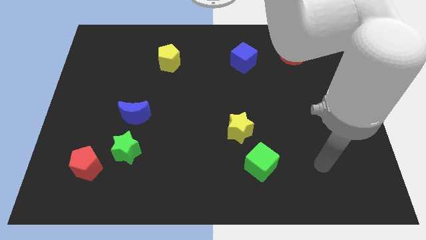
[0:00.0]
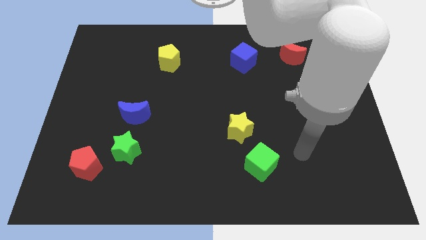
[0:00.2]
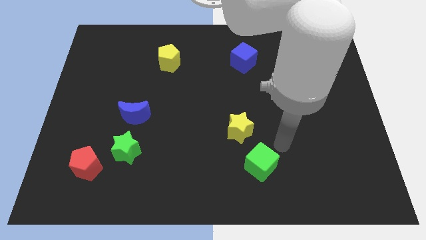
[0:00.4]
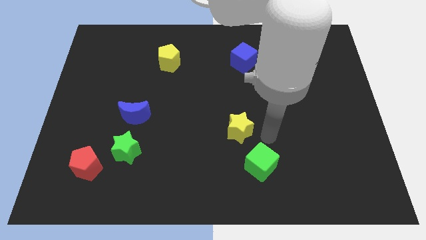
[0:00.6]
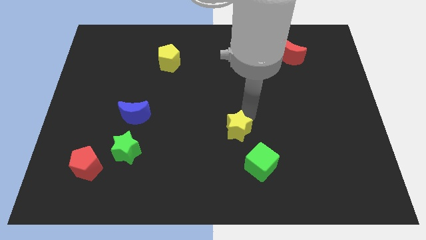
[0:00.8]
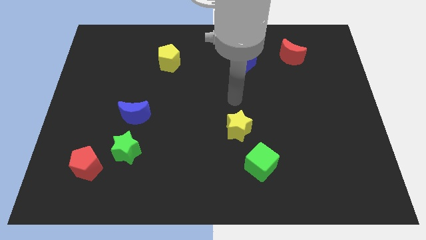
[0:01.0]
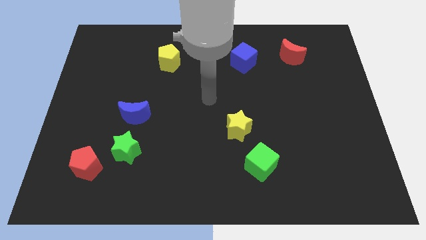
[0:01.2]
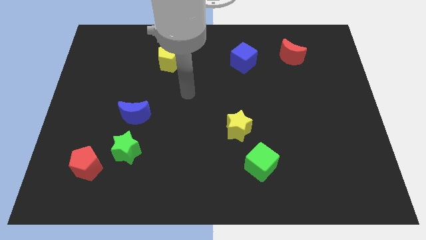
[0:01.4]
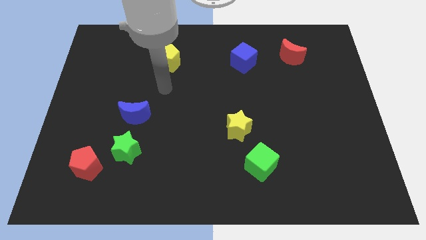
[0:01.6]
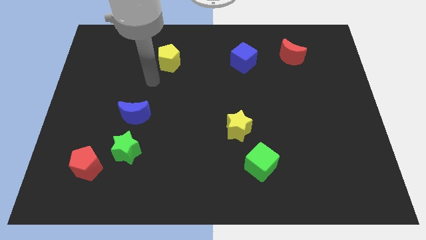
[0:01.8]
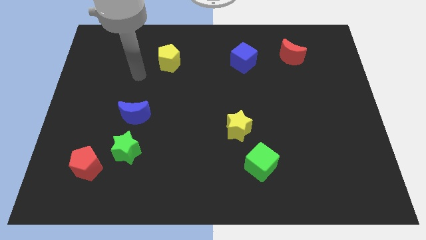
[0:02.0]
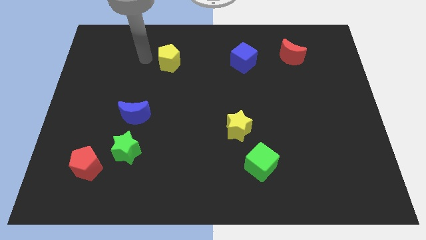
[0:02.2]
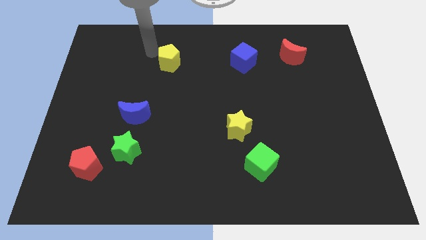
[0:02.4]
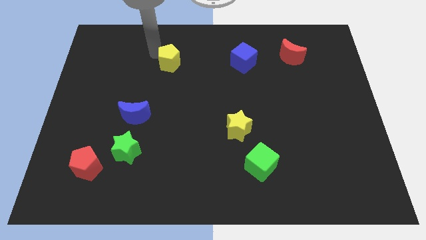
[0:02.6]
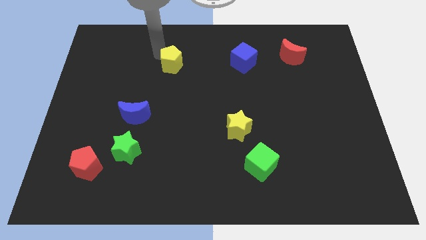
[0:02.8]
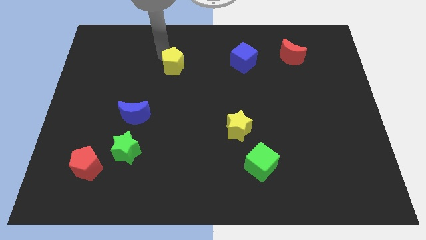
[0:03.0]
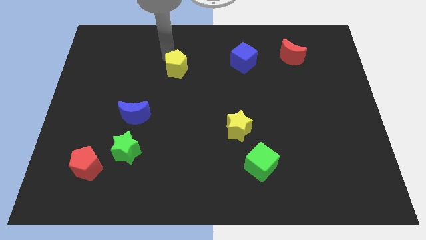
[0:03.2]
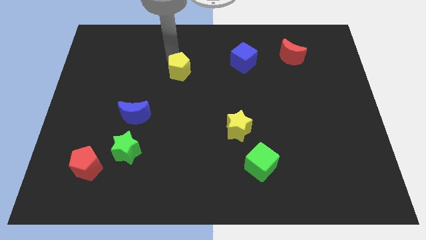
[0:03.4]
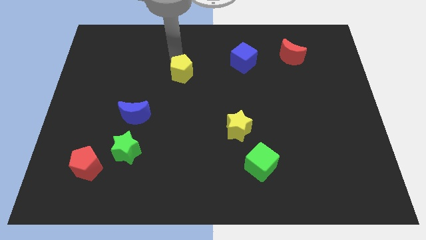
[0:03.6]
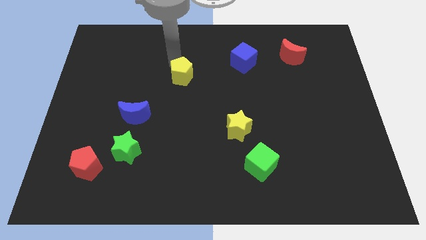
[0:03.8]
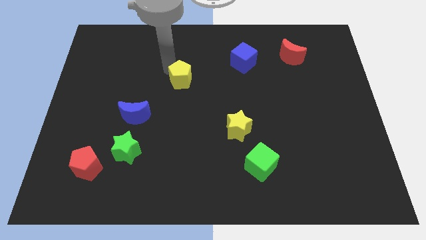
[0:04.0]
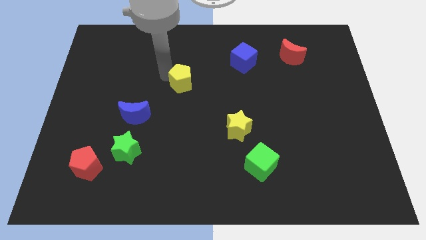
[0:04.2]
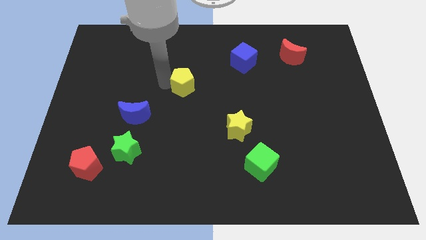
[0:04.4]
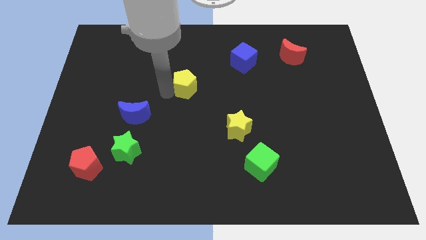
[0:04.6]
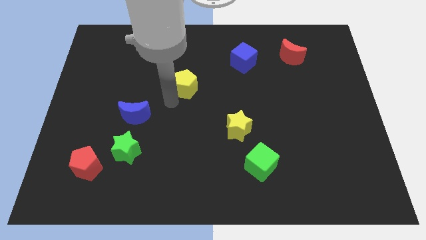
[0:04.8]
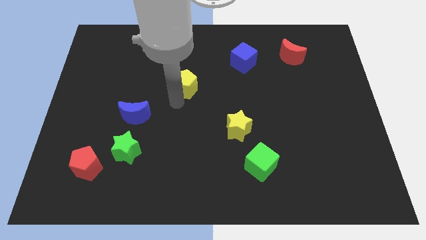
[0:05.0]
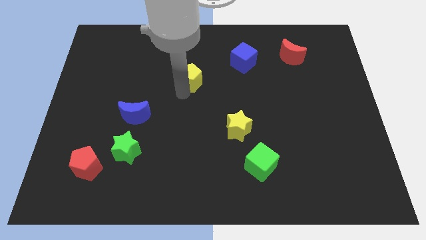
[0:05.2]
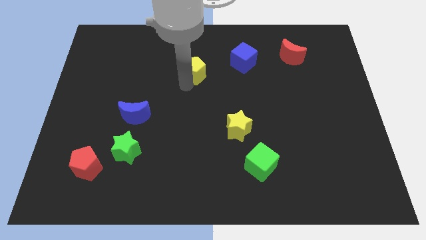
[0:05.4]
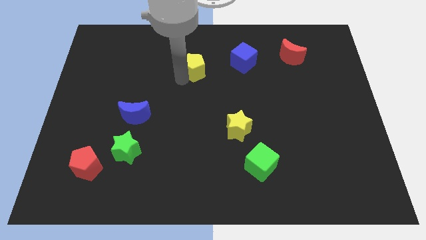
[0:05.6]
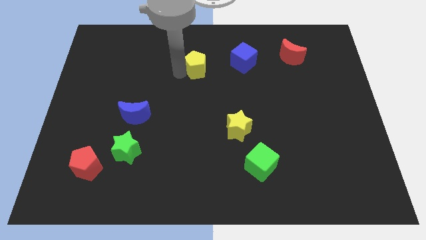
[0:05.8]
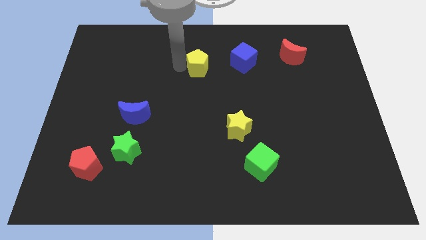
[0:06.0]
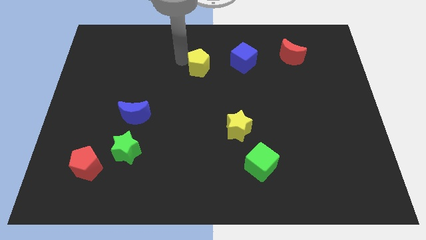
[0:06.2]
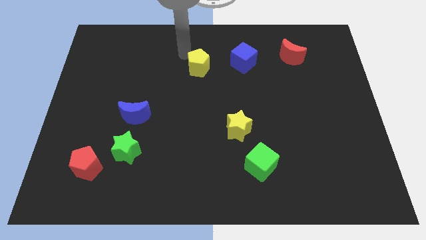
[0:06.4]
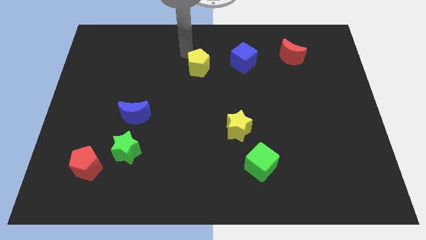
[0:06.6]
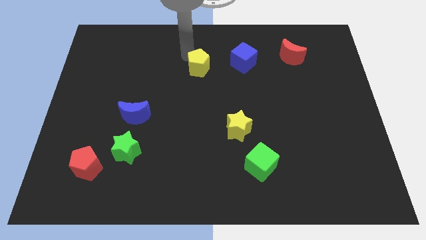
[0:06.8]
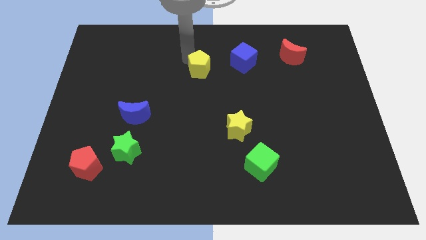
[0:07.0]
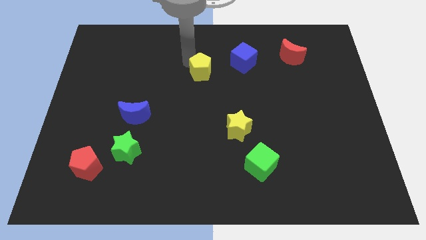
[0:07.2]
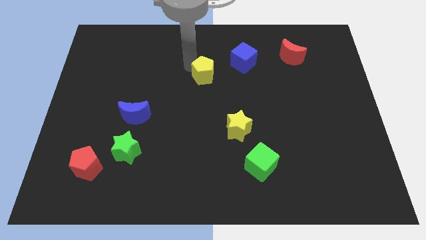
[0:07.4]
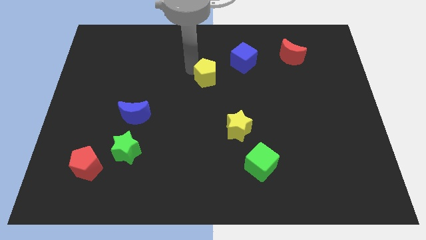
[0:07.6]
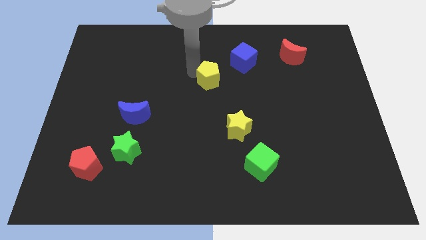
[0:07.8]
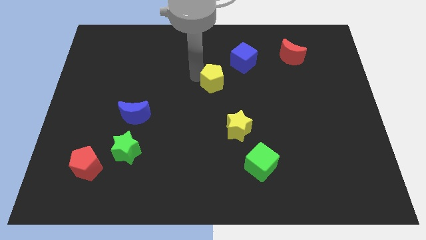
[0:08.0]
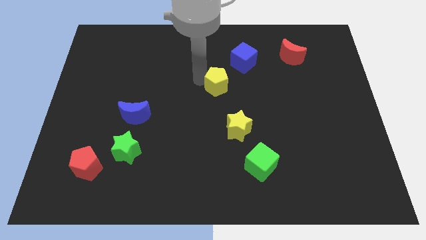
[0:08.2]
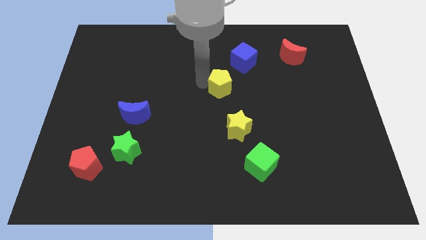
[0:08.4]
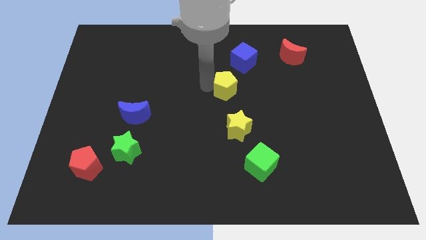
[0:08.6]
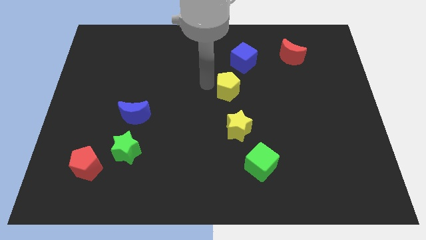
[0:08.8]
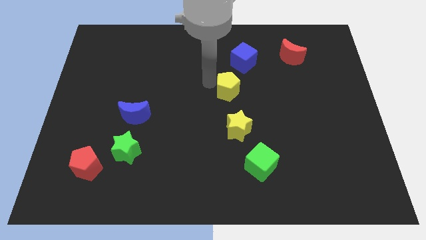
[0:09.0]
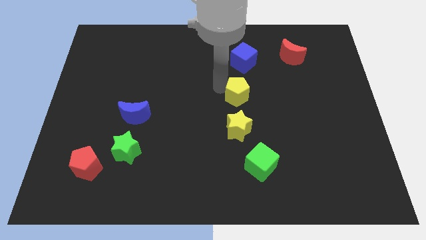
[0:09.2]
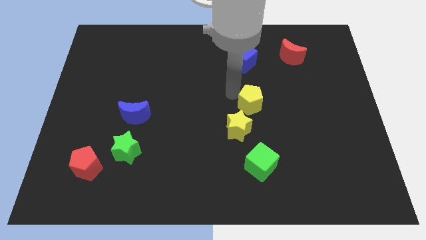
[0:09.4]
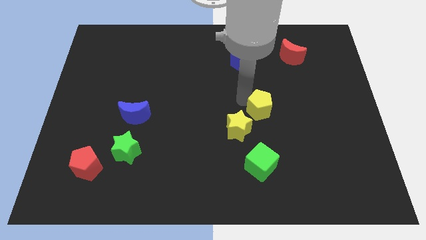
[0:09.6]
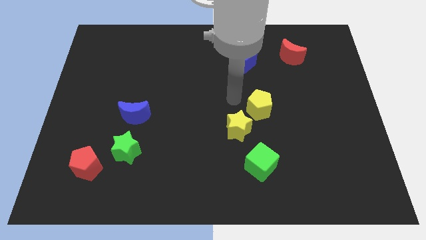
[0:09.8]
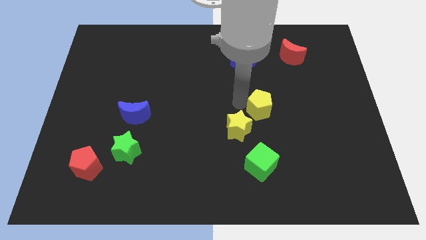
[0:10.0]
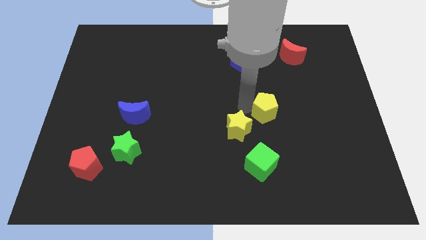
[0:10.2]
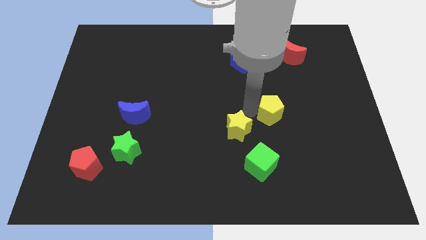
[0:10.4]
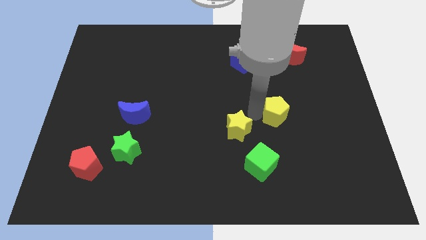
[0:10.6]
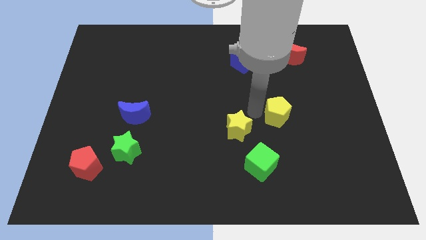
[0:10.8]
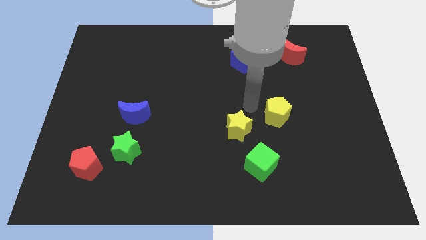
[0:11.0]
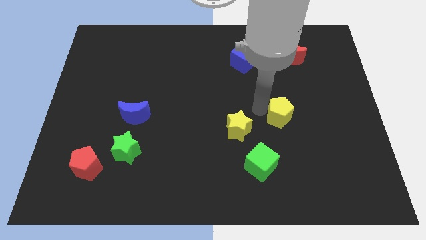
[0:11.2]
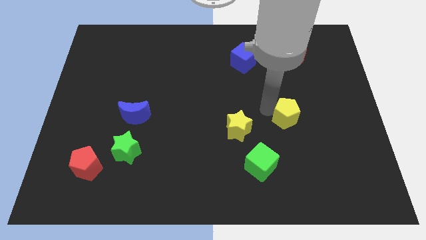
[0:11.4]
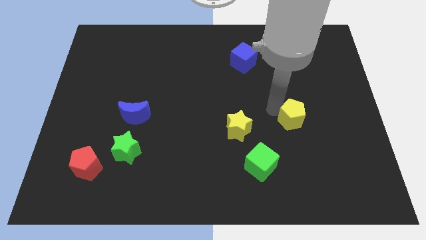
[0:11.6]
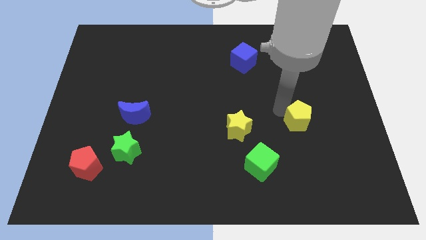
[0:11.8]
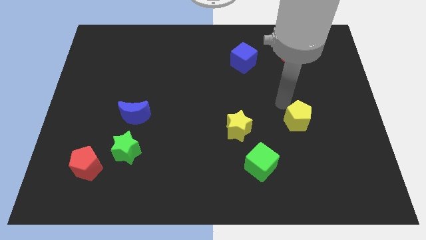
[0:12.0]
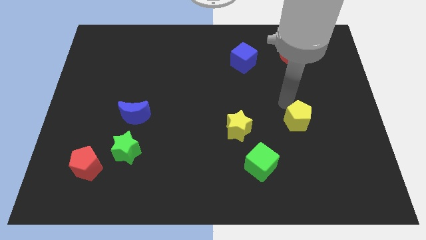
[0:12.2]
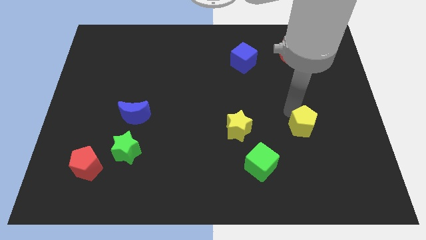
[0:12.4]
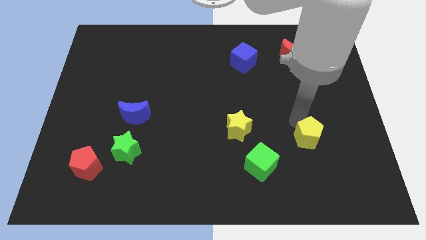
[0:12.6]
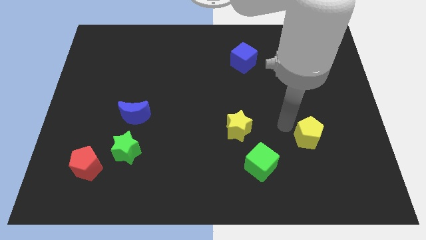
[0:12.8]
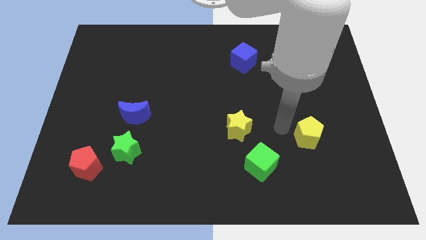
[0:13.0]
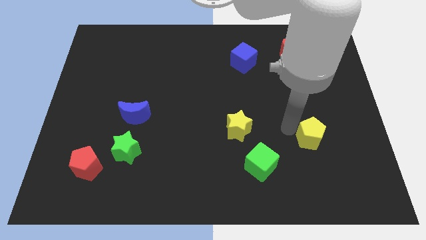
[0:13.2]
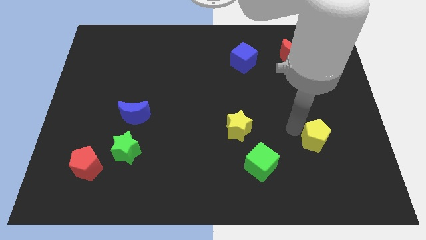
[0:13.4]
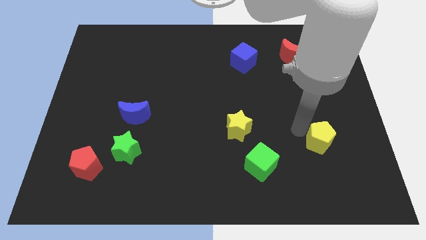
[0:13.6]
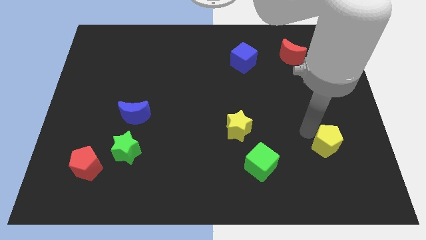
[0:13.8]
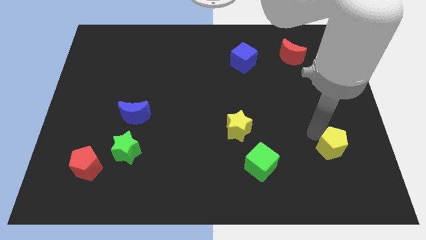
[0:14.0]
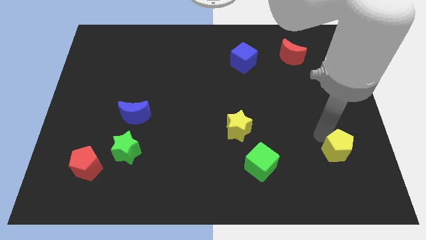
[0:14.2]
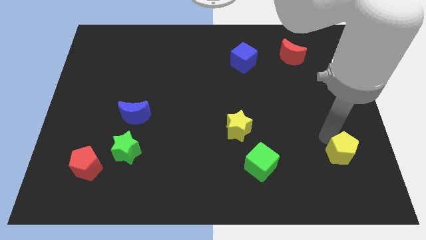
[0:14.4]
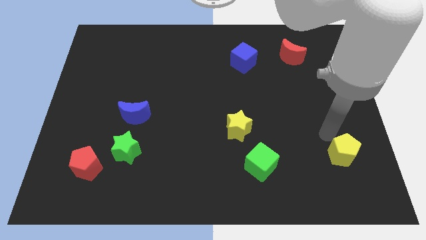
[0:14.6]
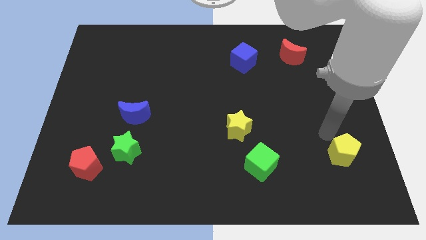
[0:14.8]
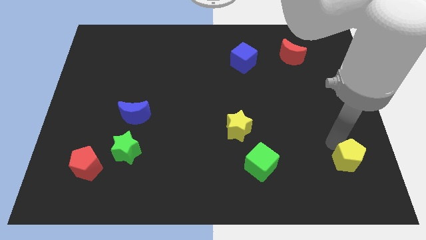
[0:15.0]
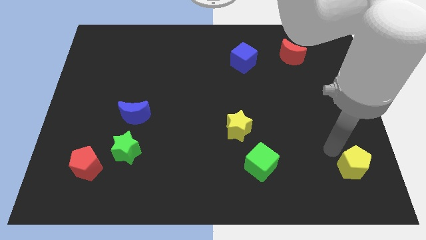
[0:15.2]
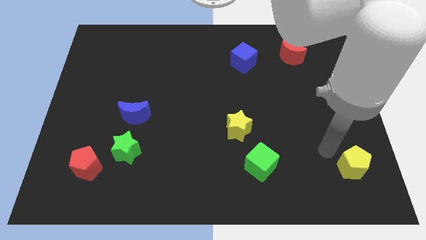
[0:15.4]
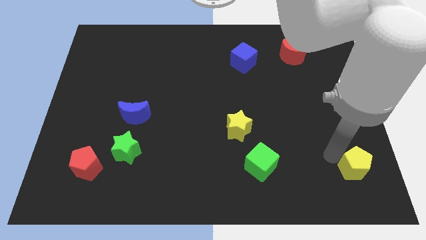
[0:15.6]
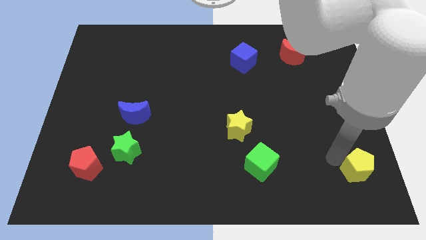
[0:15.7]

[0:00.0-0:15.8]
slide the yellow pentagon to the lower right corner
